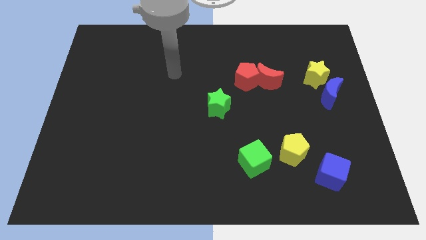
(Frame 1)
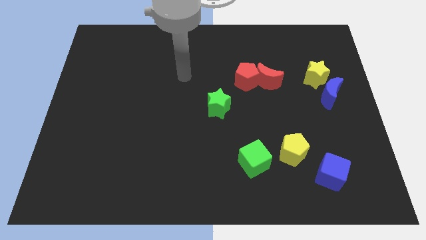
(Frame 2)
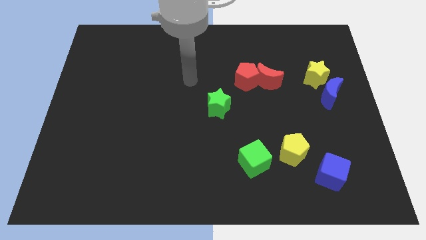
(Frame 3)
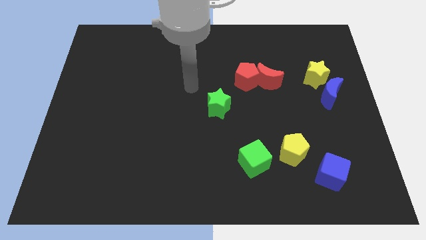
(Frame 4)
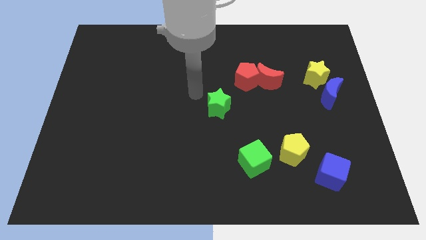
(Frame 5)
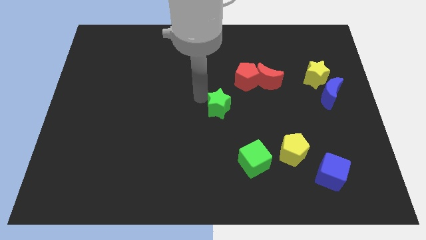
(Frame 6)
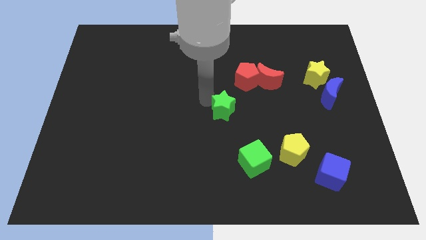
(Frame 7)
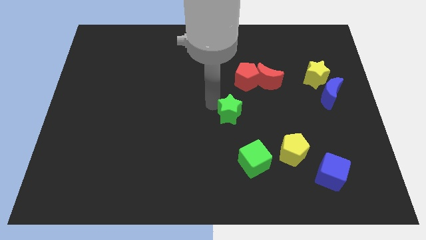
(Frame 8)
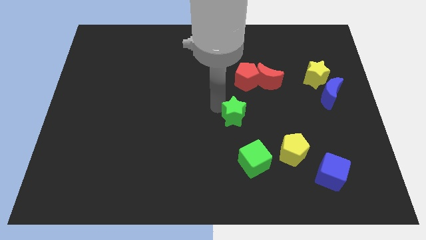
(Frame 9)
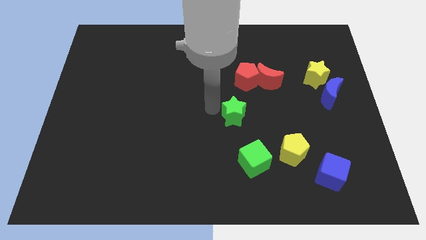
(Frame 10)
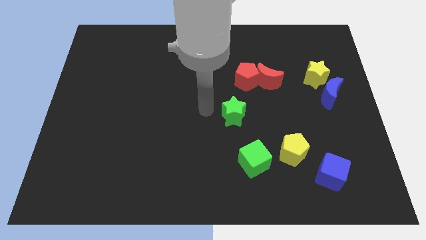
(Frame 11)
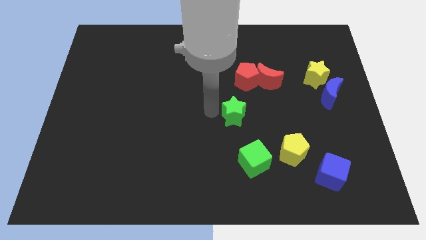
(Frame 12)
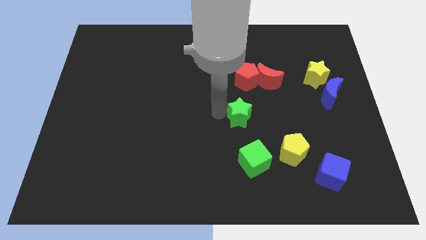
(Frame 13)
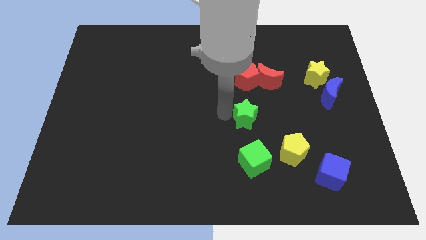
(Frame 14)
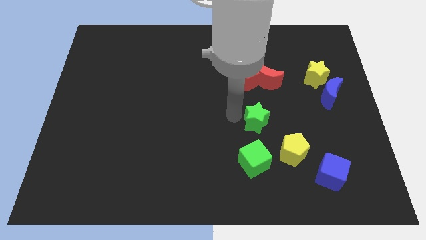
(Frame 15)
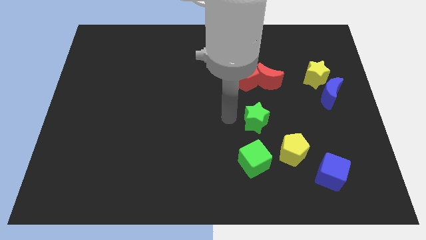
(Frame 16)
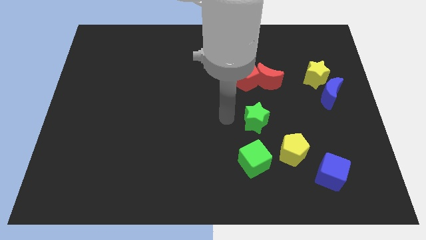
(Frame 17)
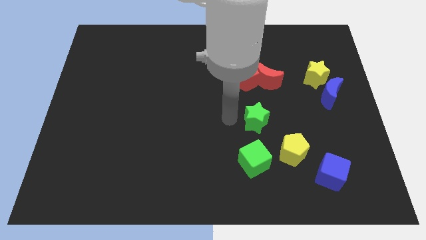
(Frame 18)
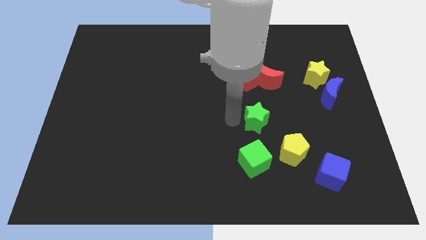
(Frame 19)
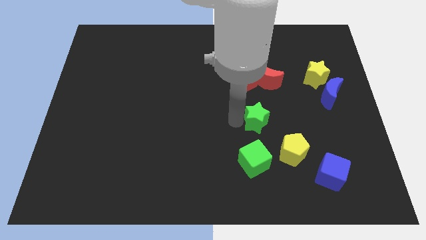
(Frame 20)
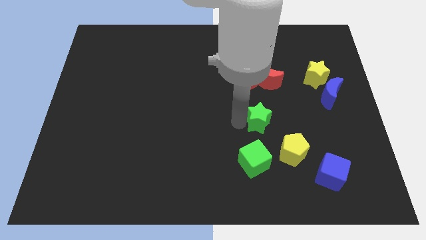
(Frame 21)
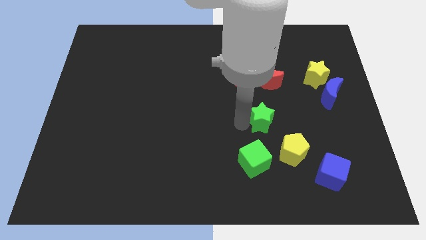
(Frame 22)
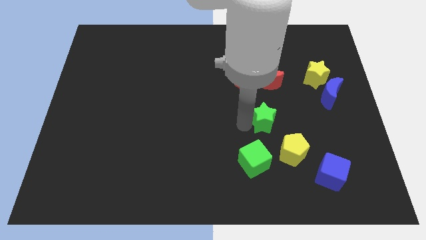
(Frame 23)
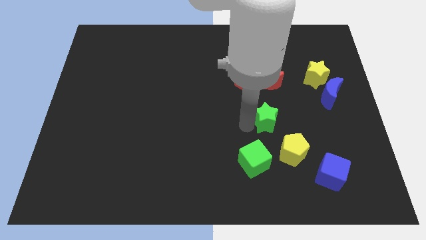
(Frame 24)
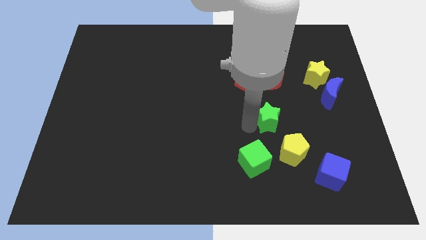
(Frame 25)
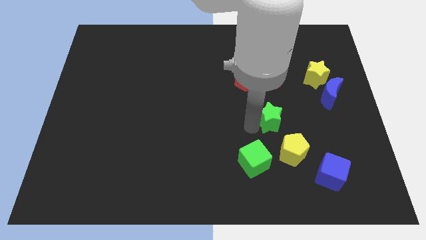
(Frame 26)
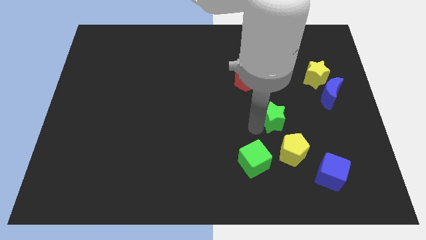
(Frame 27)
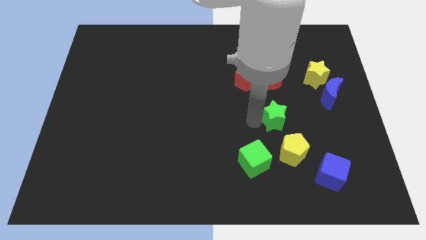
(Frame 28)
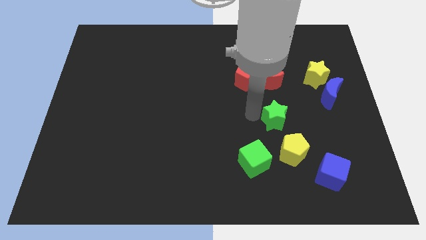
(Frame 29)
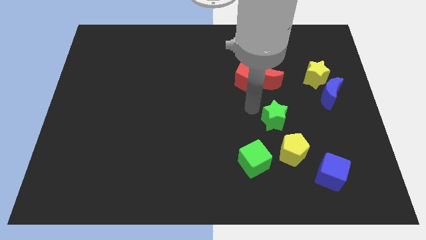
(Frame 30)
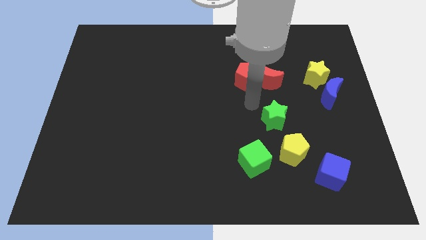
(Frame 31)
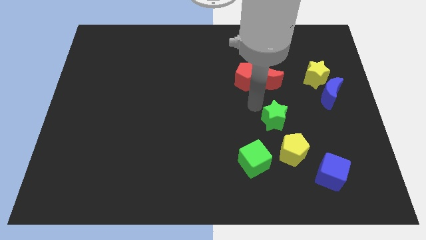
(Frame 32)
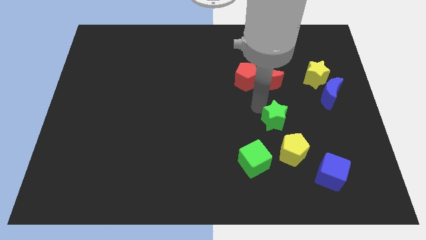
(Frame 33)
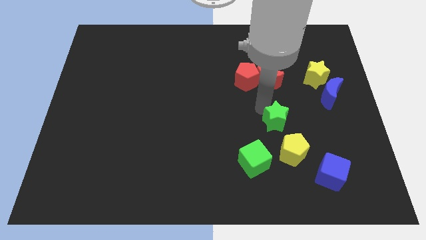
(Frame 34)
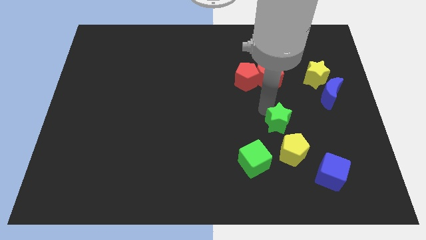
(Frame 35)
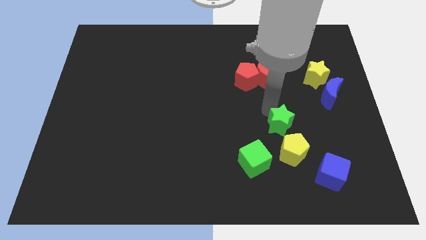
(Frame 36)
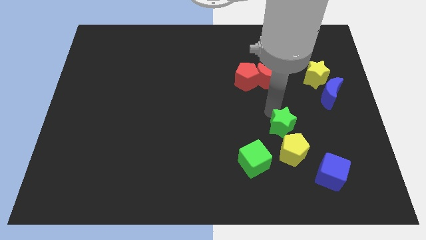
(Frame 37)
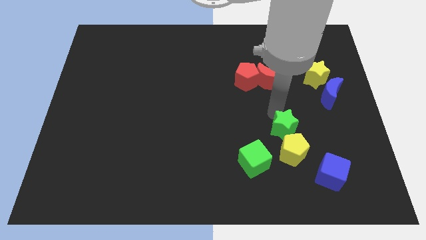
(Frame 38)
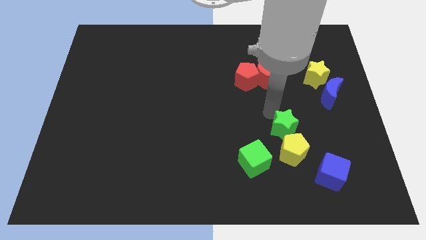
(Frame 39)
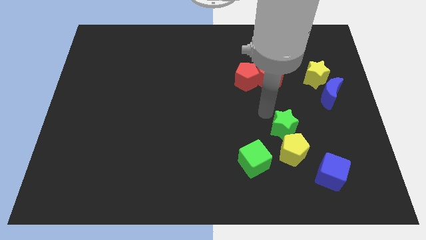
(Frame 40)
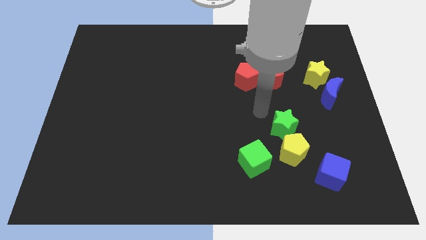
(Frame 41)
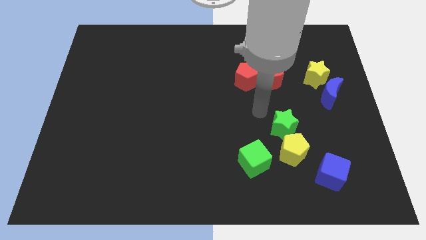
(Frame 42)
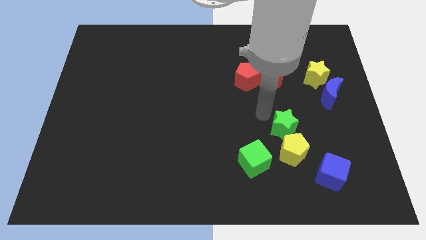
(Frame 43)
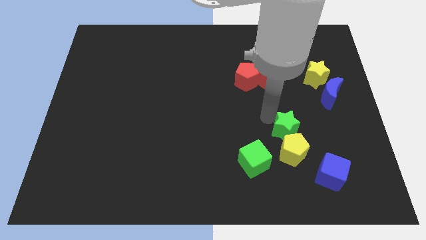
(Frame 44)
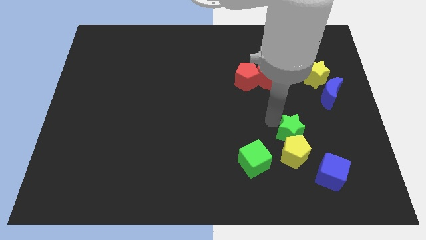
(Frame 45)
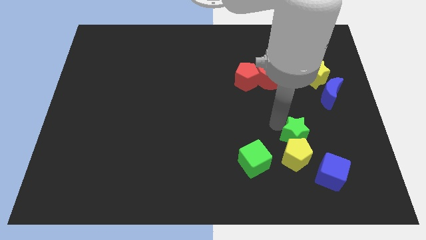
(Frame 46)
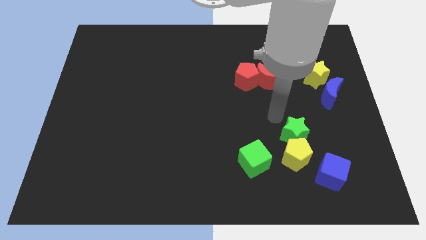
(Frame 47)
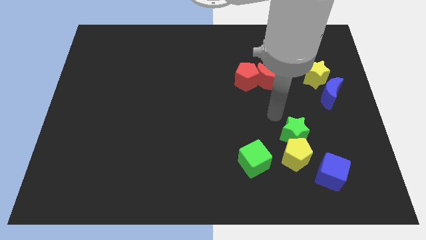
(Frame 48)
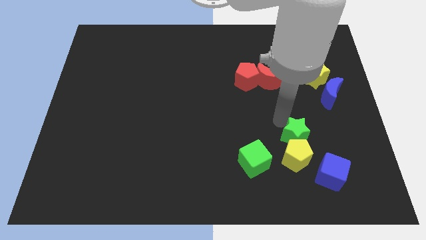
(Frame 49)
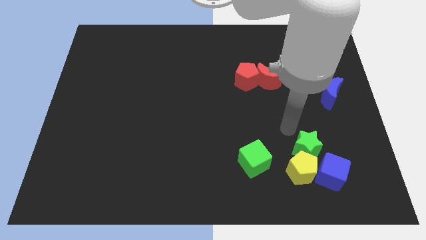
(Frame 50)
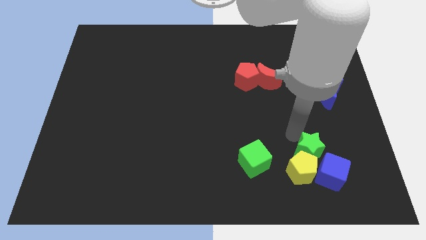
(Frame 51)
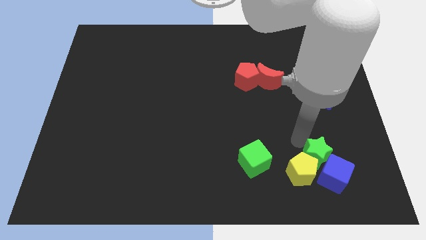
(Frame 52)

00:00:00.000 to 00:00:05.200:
move the green star towards the blue cube

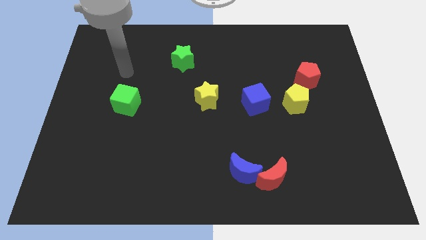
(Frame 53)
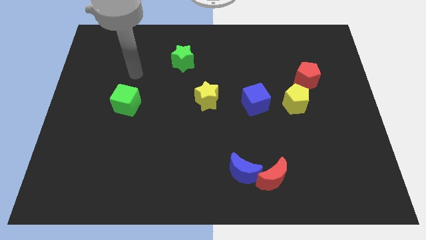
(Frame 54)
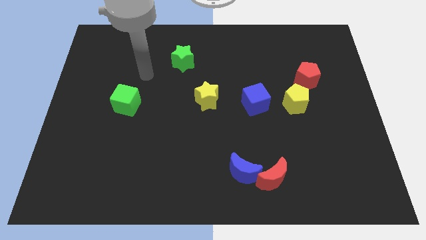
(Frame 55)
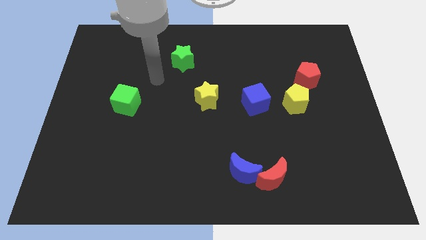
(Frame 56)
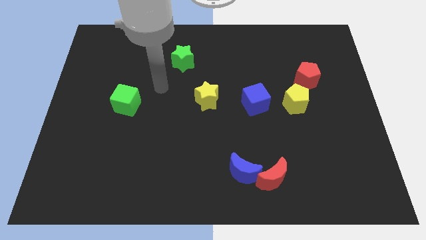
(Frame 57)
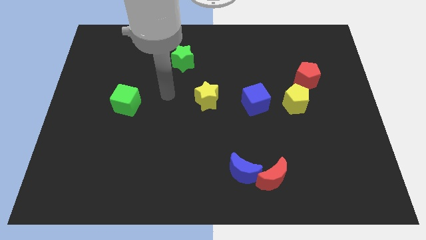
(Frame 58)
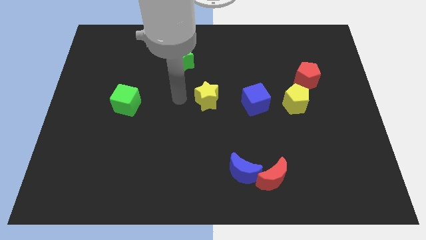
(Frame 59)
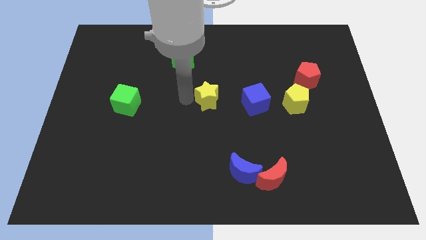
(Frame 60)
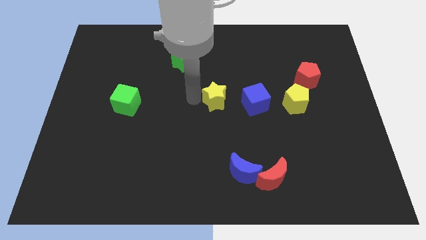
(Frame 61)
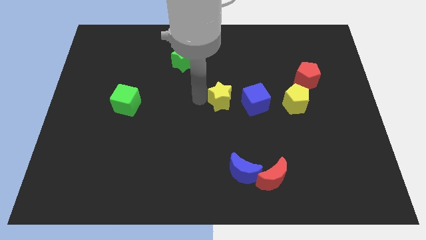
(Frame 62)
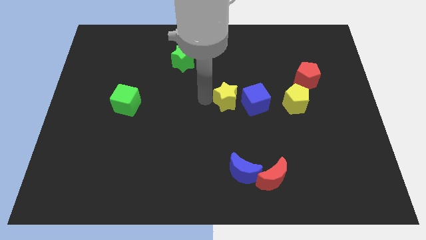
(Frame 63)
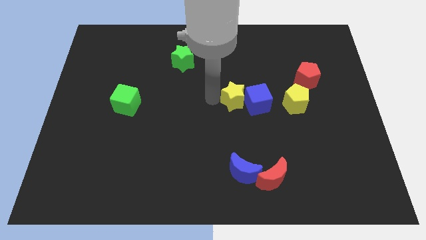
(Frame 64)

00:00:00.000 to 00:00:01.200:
push the yellow star close to the blue cube

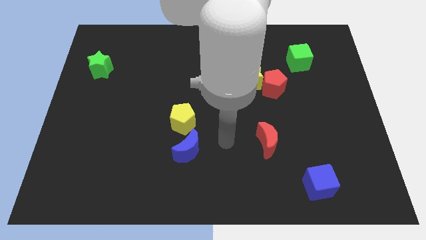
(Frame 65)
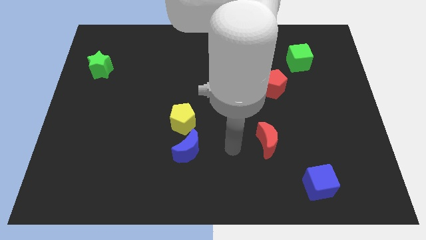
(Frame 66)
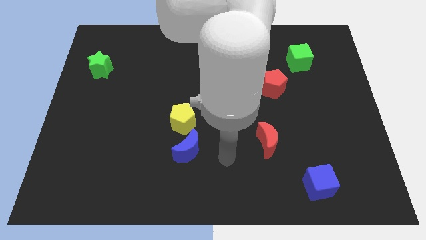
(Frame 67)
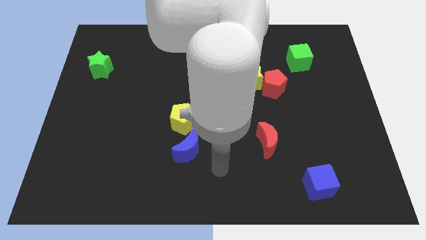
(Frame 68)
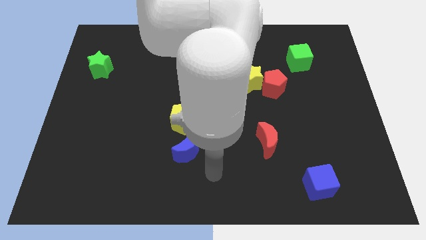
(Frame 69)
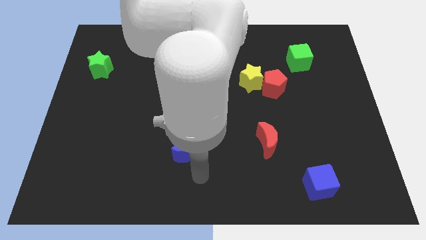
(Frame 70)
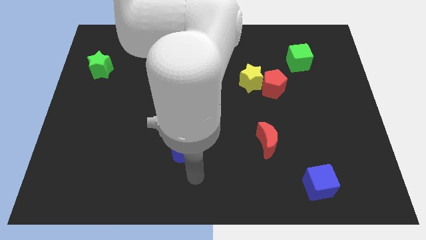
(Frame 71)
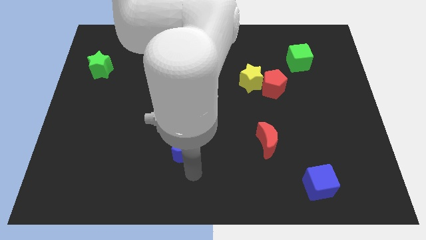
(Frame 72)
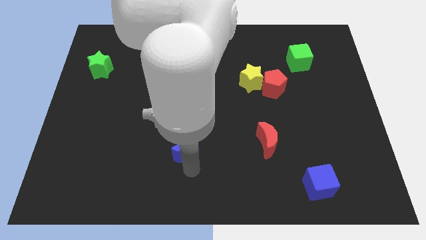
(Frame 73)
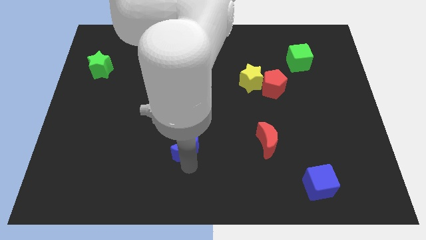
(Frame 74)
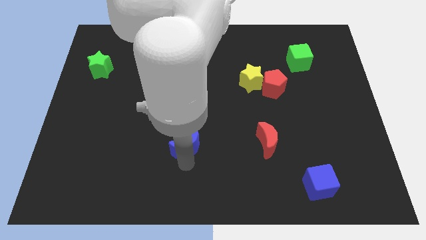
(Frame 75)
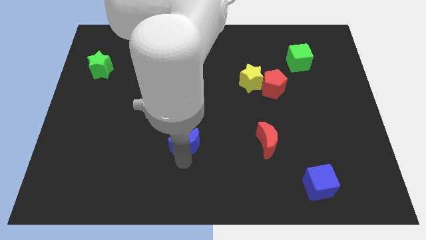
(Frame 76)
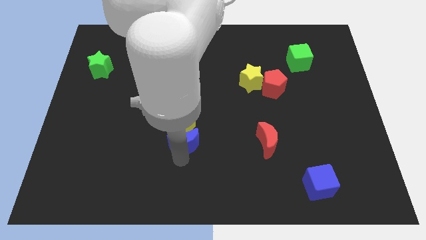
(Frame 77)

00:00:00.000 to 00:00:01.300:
move the blue moon next to the yellow pentagon
